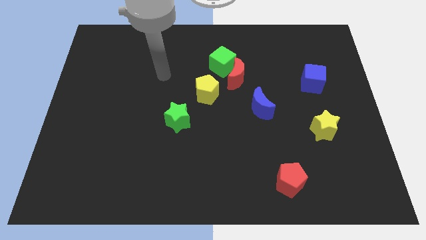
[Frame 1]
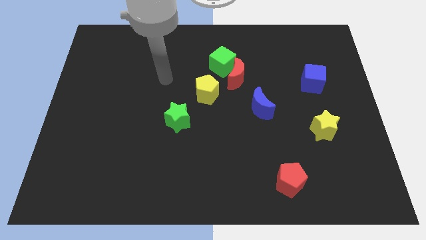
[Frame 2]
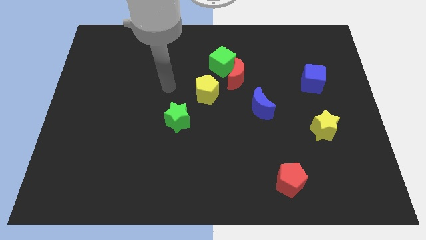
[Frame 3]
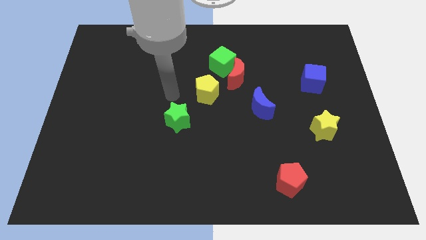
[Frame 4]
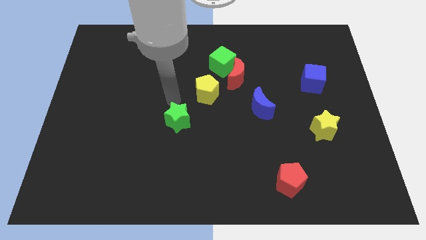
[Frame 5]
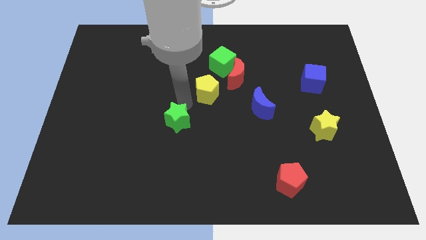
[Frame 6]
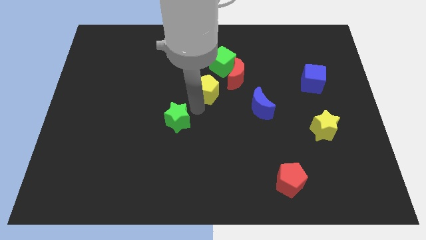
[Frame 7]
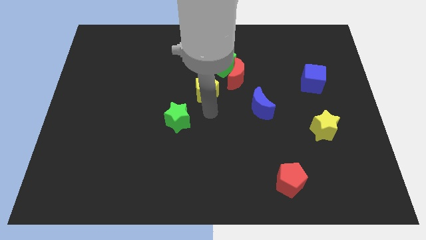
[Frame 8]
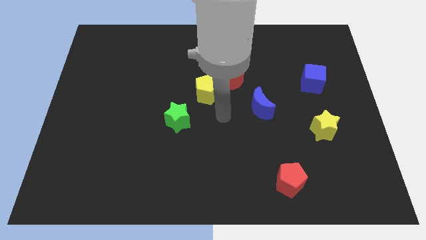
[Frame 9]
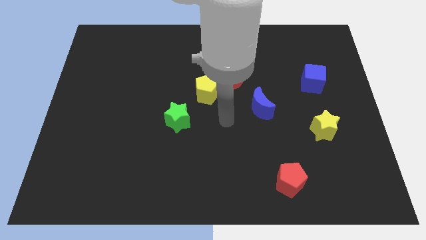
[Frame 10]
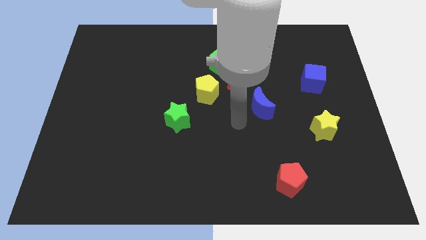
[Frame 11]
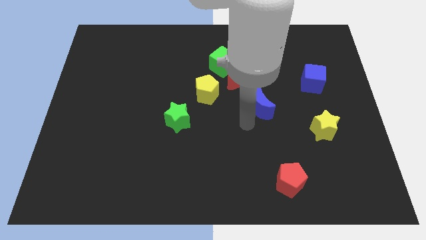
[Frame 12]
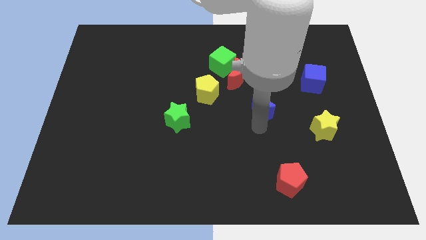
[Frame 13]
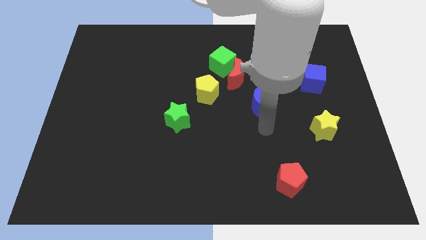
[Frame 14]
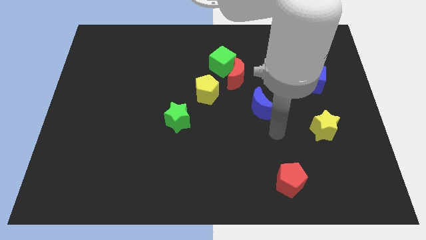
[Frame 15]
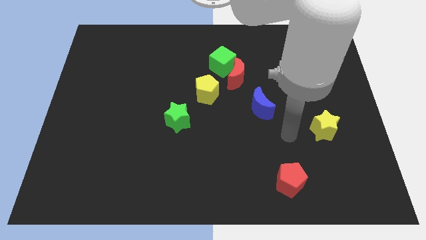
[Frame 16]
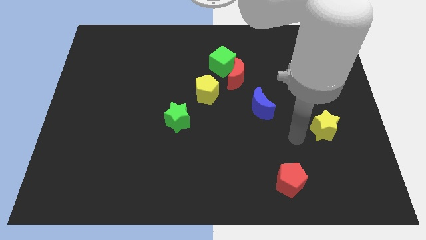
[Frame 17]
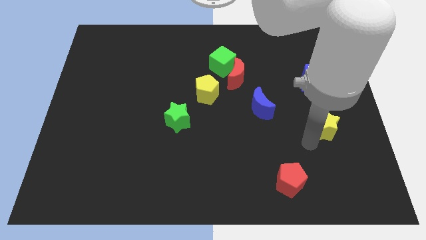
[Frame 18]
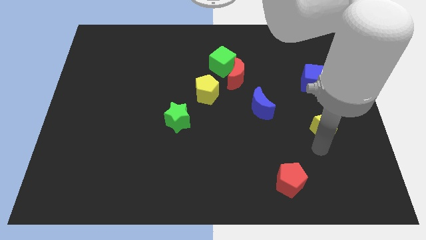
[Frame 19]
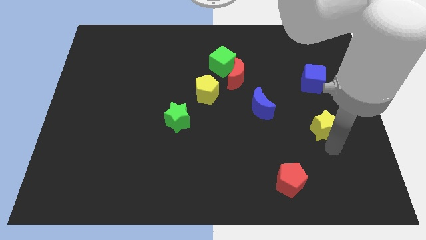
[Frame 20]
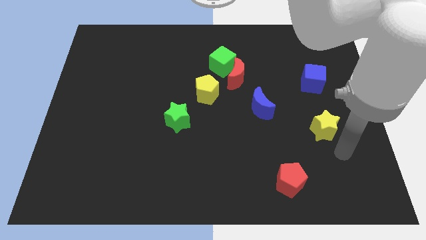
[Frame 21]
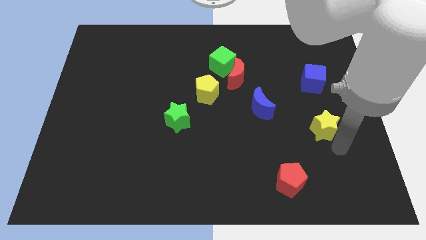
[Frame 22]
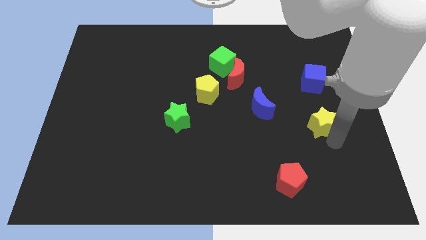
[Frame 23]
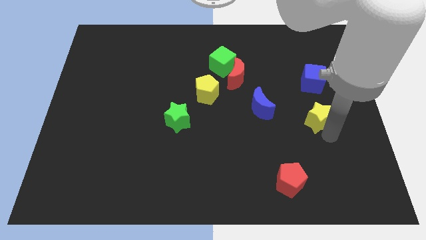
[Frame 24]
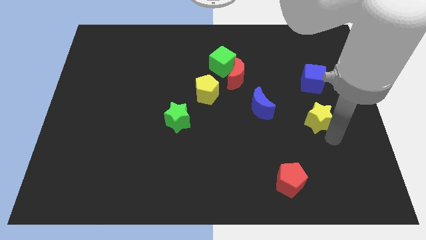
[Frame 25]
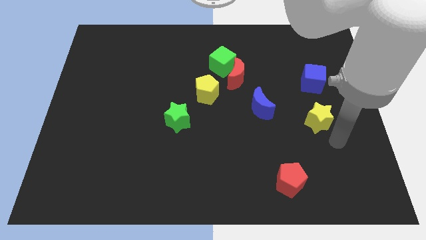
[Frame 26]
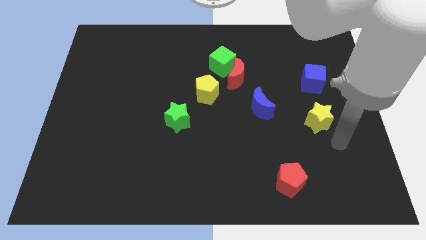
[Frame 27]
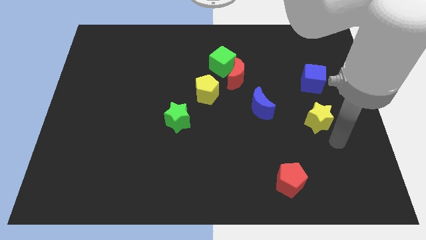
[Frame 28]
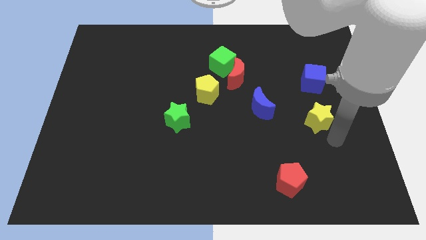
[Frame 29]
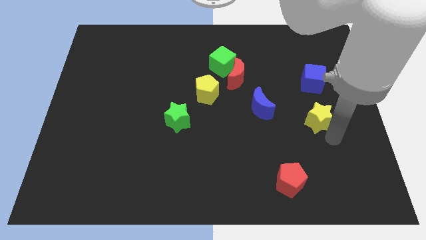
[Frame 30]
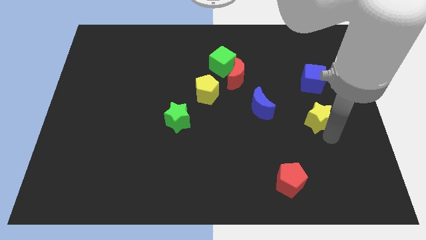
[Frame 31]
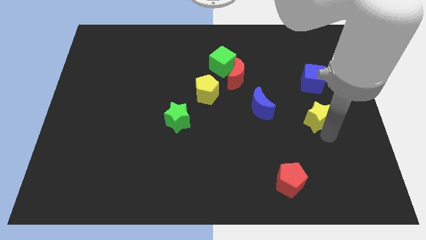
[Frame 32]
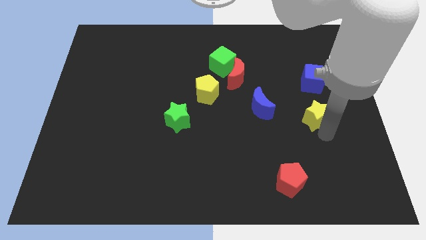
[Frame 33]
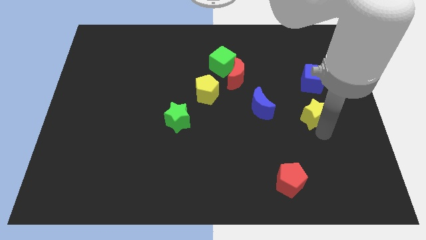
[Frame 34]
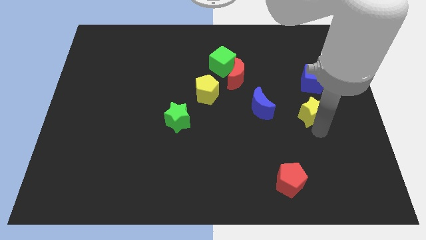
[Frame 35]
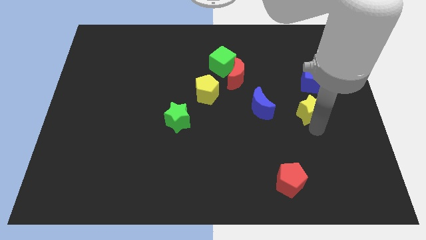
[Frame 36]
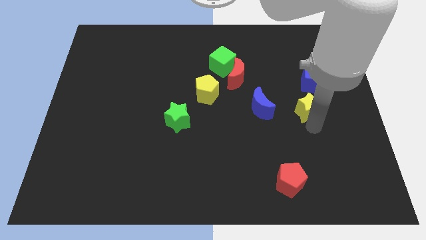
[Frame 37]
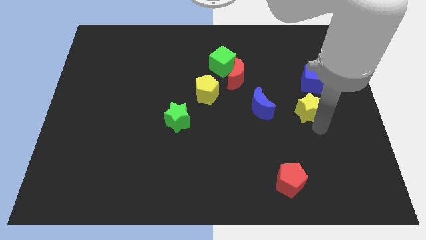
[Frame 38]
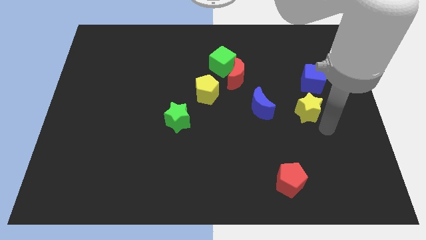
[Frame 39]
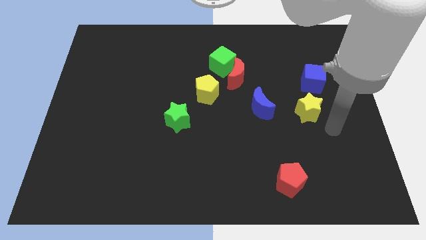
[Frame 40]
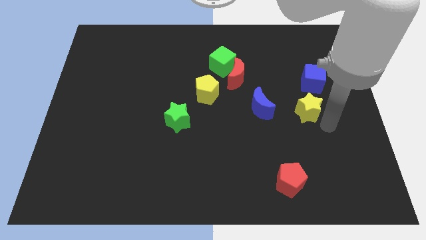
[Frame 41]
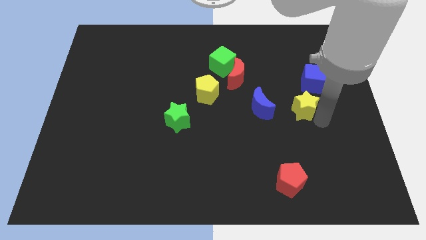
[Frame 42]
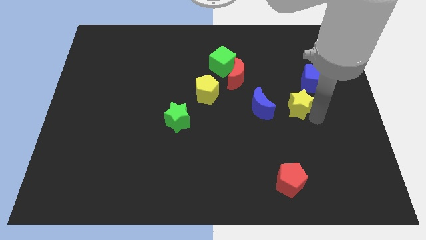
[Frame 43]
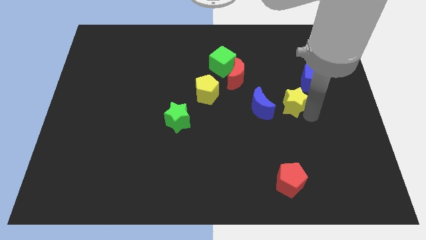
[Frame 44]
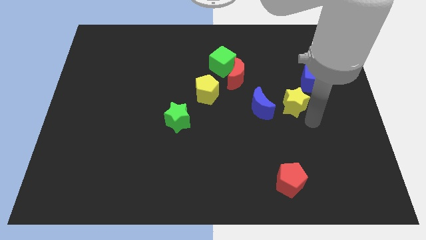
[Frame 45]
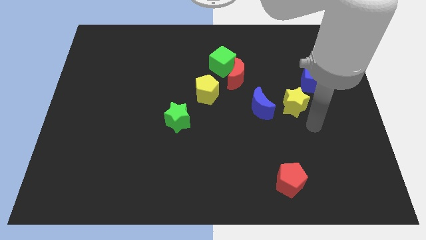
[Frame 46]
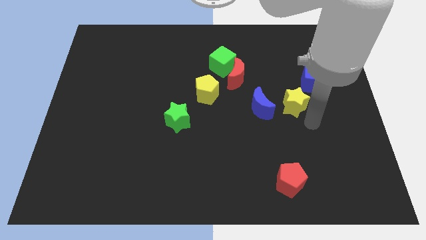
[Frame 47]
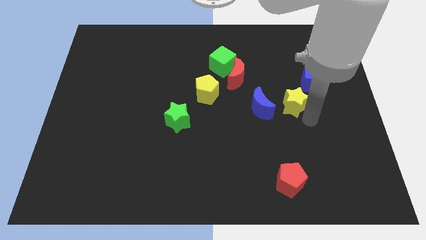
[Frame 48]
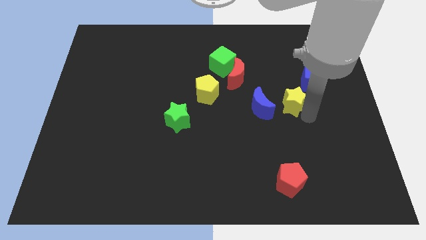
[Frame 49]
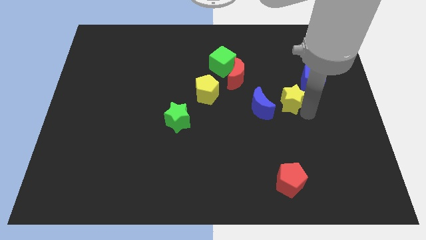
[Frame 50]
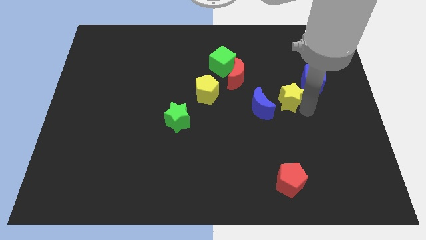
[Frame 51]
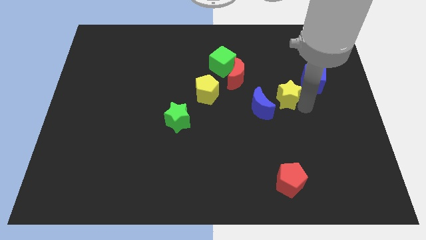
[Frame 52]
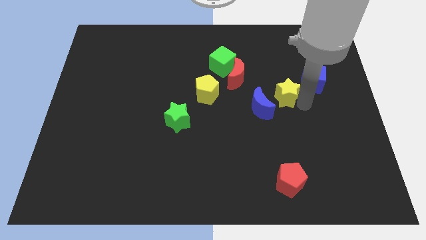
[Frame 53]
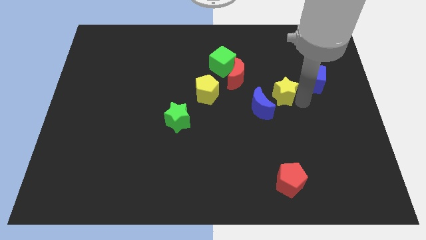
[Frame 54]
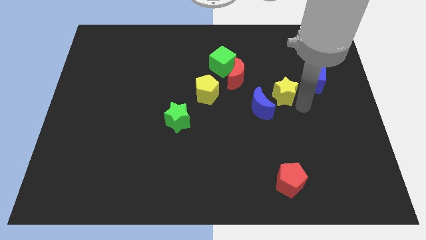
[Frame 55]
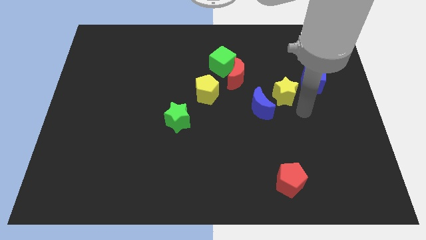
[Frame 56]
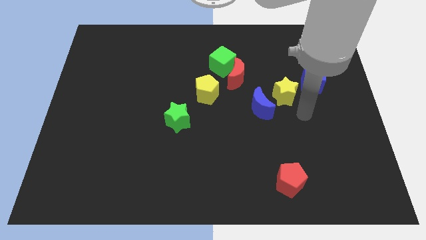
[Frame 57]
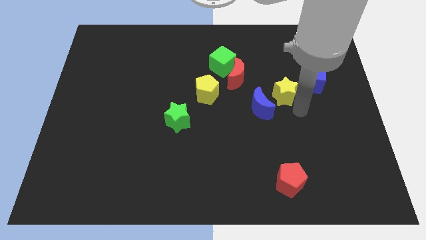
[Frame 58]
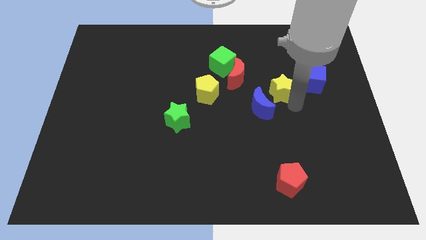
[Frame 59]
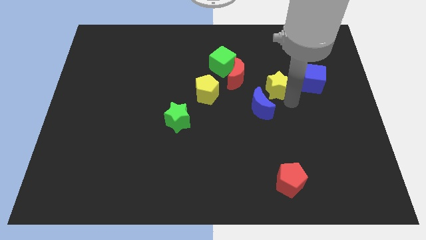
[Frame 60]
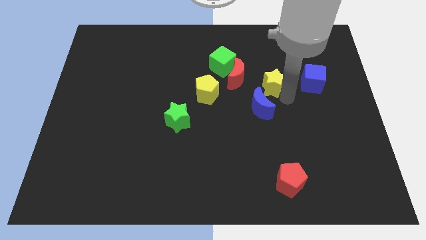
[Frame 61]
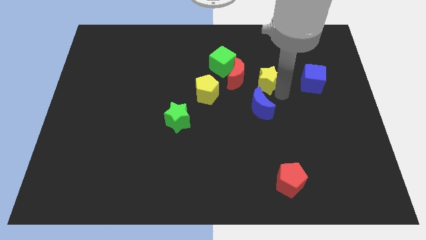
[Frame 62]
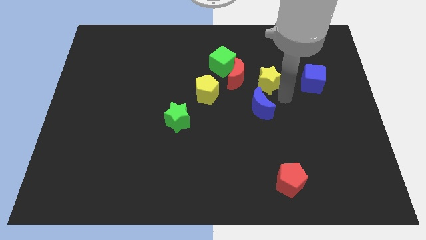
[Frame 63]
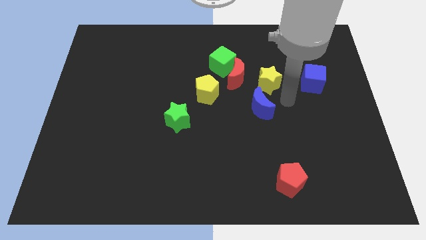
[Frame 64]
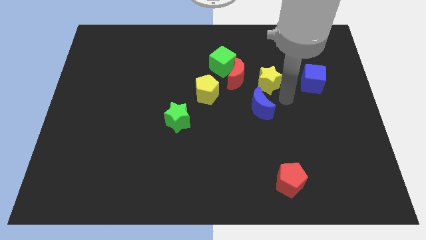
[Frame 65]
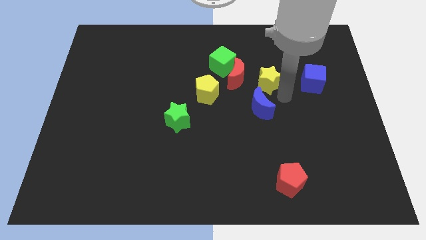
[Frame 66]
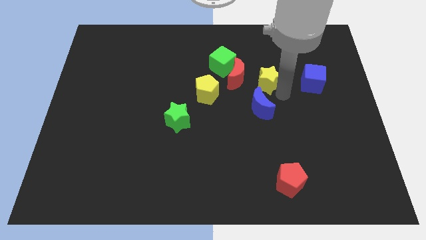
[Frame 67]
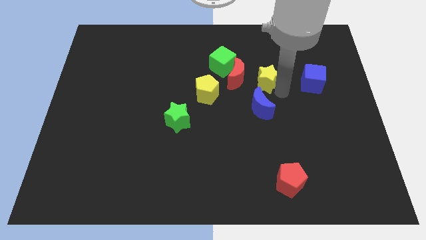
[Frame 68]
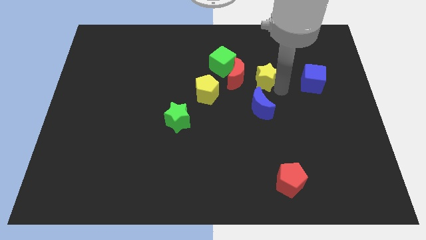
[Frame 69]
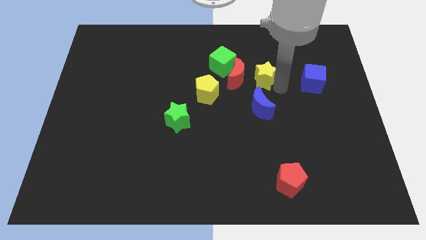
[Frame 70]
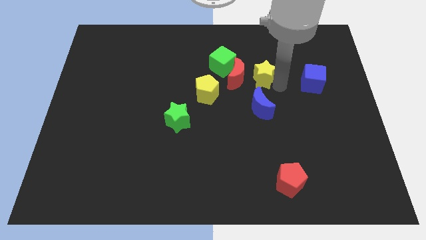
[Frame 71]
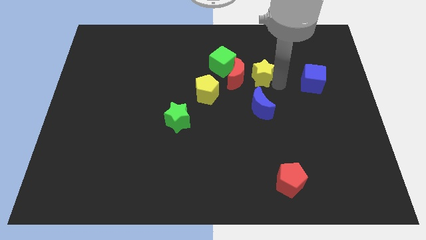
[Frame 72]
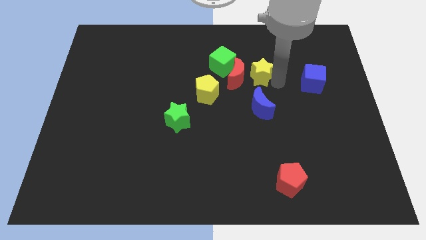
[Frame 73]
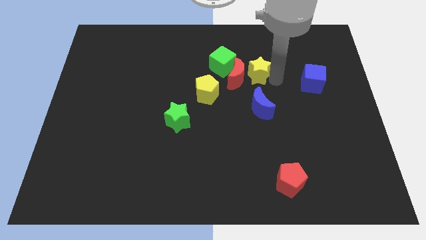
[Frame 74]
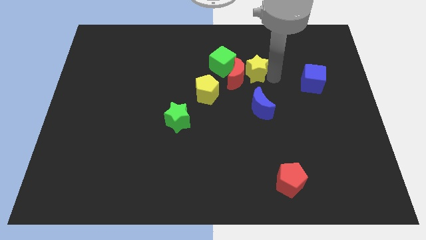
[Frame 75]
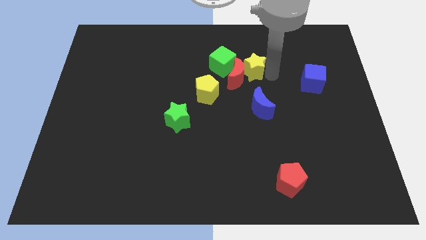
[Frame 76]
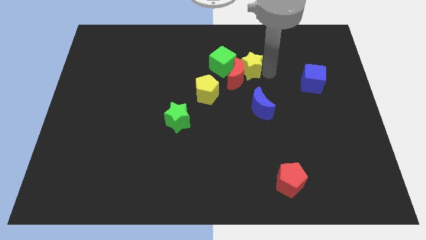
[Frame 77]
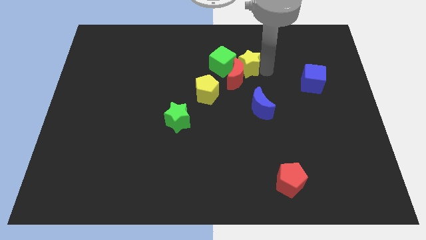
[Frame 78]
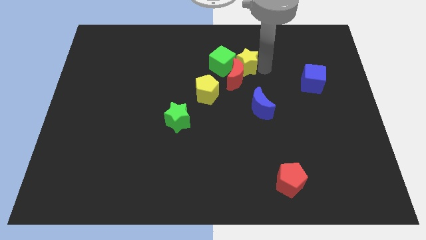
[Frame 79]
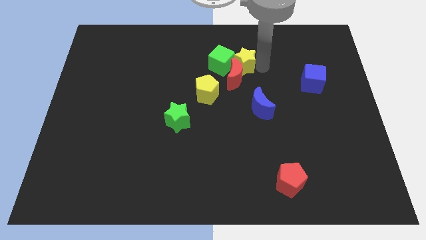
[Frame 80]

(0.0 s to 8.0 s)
slide the yellow star to the green cube

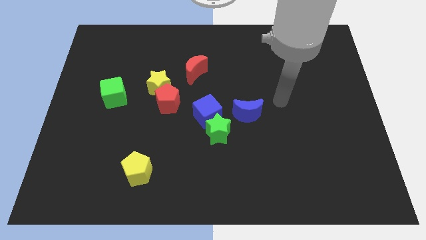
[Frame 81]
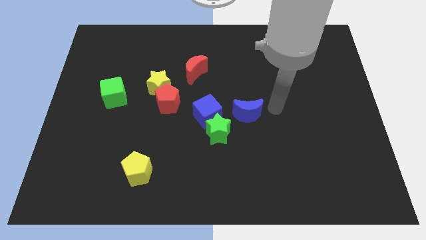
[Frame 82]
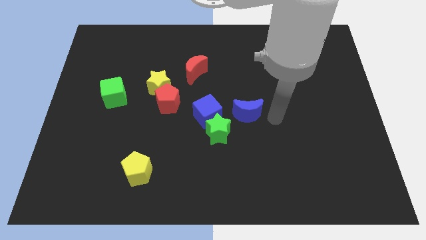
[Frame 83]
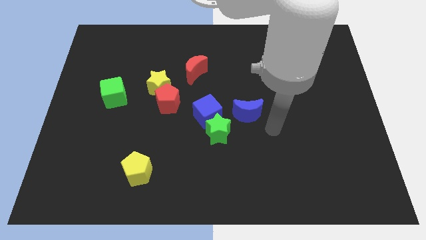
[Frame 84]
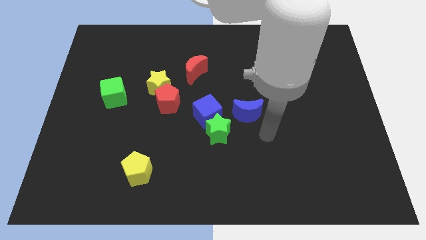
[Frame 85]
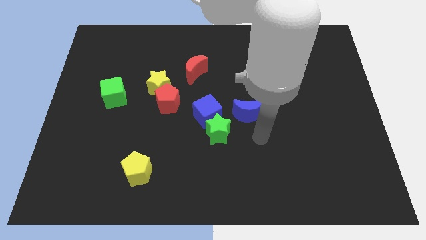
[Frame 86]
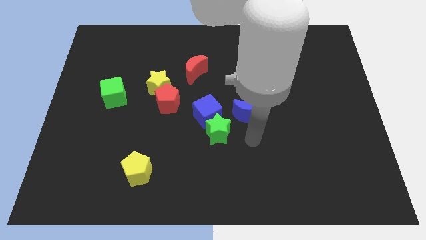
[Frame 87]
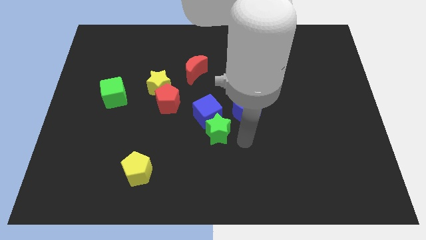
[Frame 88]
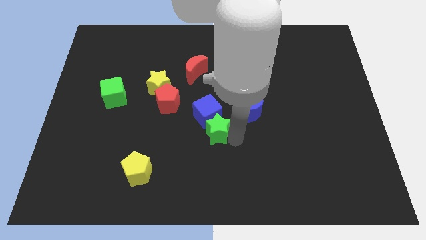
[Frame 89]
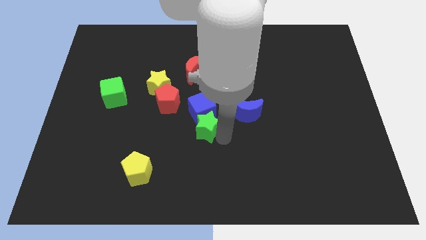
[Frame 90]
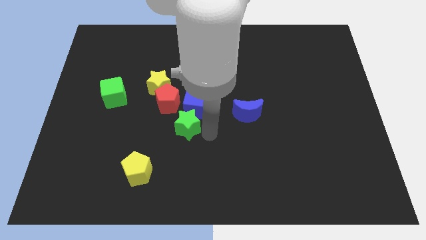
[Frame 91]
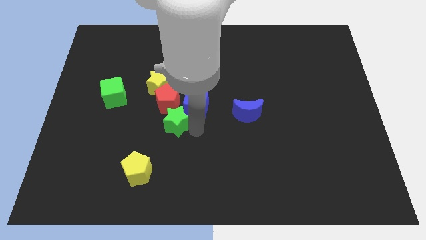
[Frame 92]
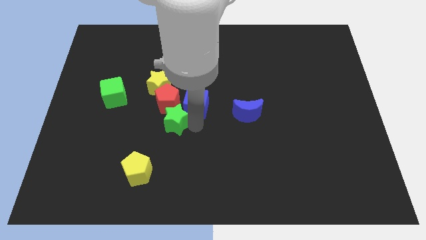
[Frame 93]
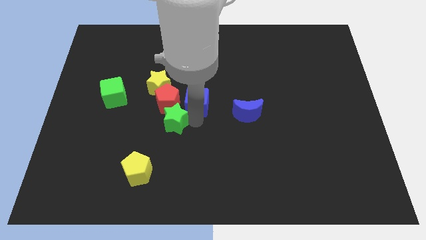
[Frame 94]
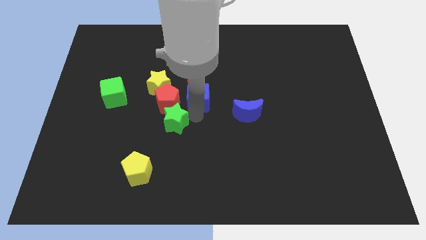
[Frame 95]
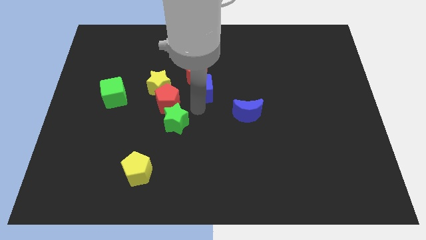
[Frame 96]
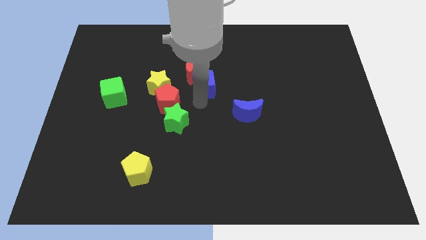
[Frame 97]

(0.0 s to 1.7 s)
put the blue cube to the red moon
